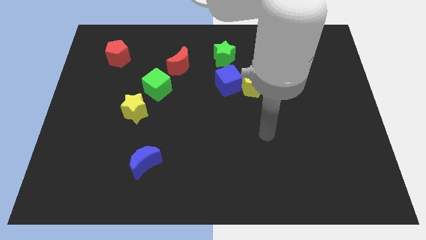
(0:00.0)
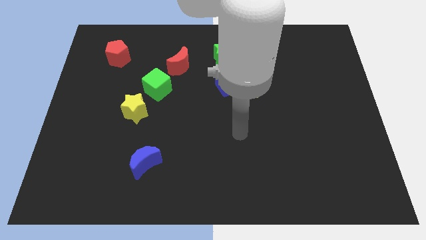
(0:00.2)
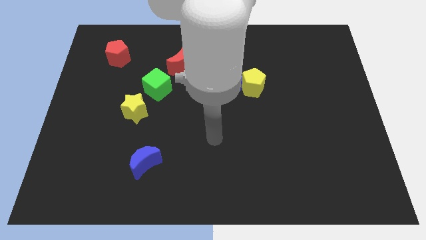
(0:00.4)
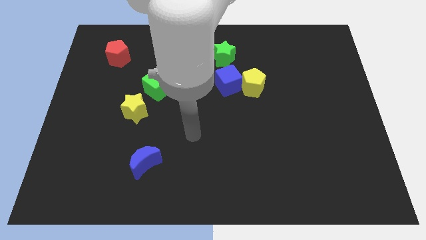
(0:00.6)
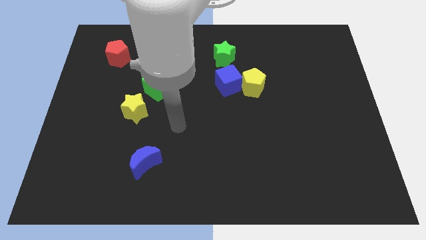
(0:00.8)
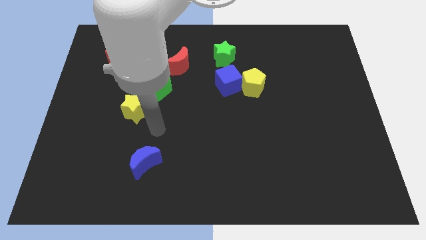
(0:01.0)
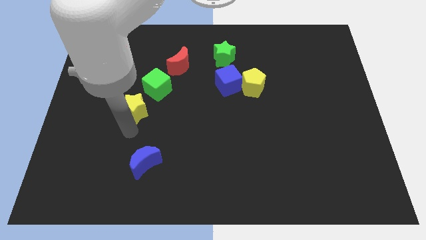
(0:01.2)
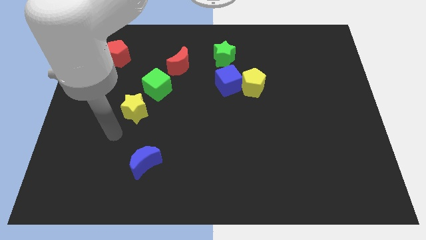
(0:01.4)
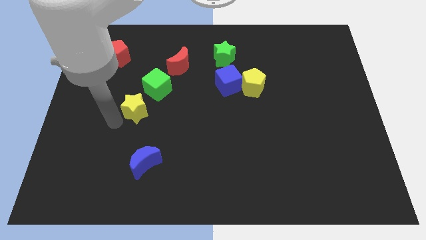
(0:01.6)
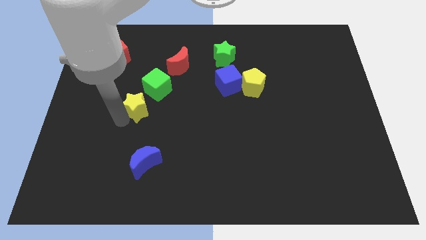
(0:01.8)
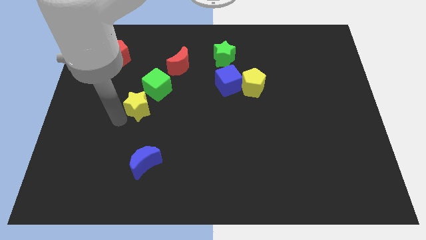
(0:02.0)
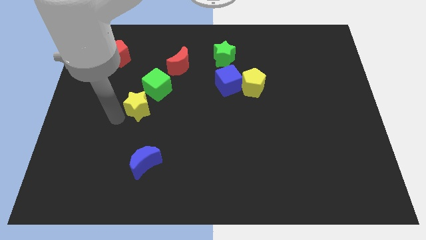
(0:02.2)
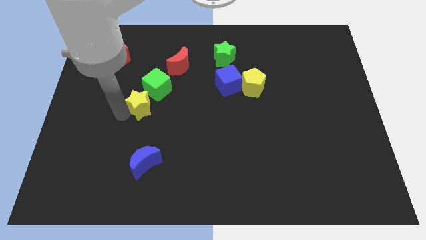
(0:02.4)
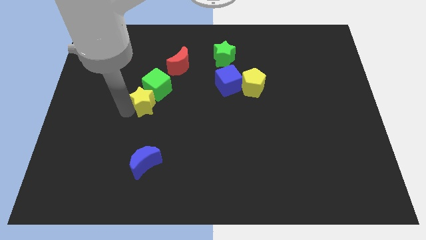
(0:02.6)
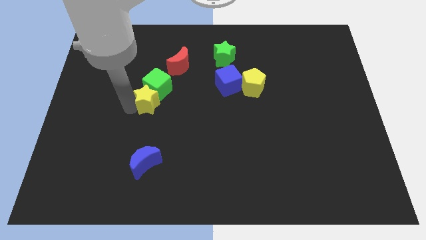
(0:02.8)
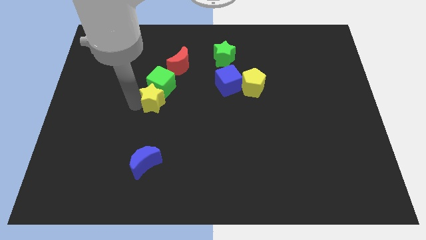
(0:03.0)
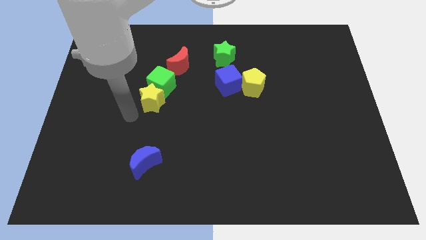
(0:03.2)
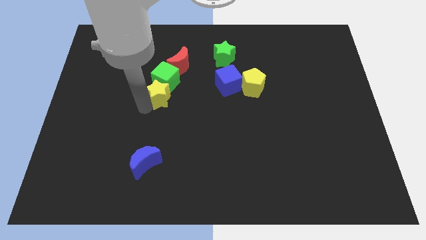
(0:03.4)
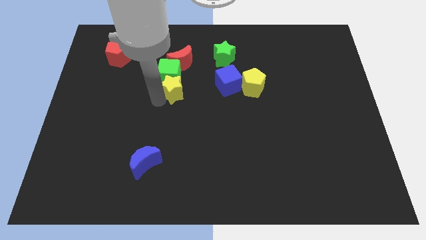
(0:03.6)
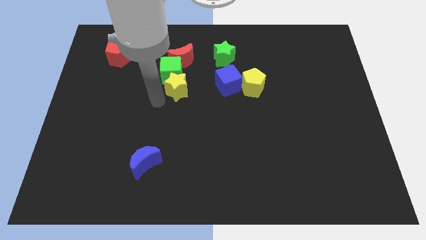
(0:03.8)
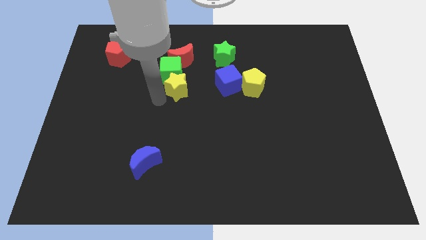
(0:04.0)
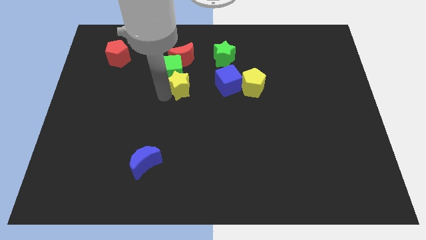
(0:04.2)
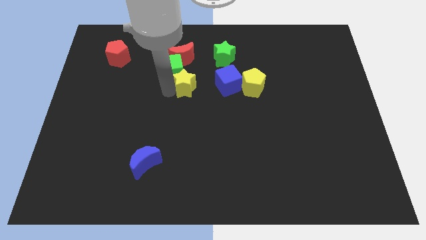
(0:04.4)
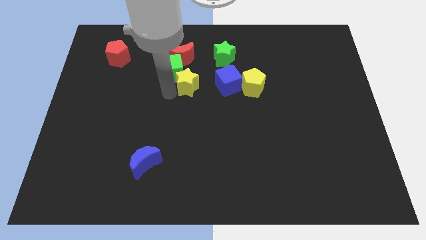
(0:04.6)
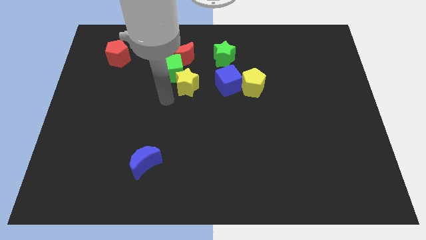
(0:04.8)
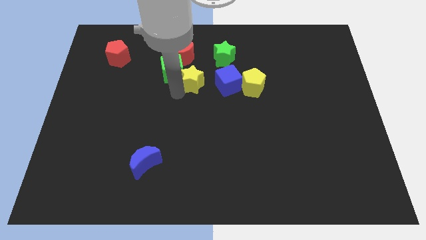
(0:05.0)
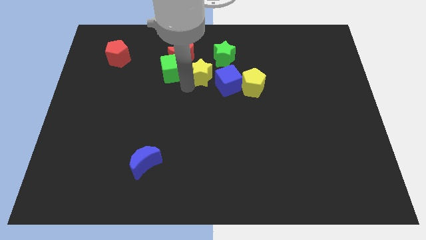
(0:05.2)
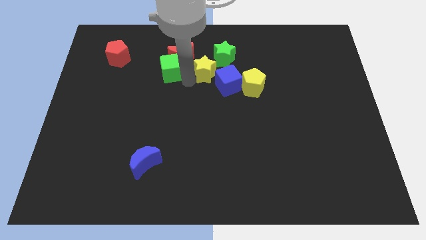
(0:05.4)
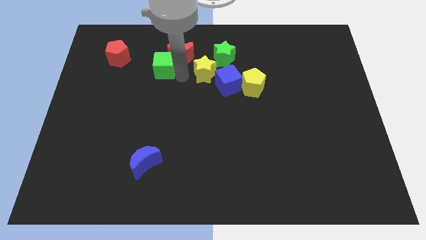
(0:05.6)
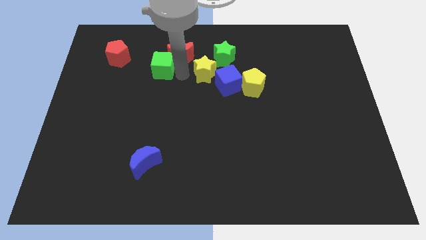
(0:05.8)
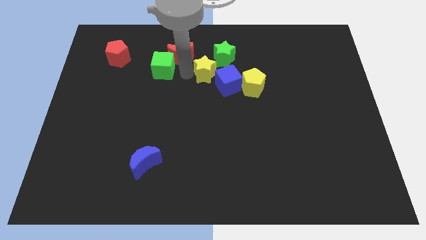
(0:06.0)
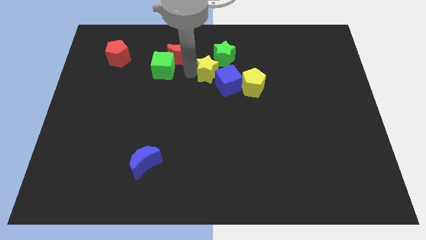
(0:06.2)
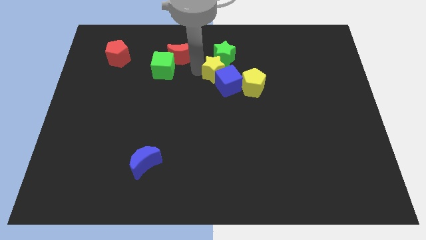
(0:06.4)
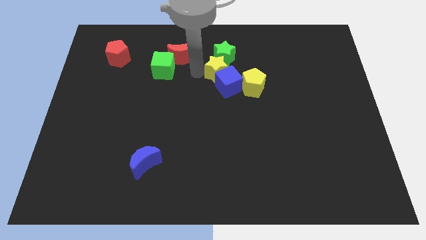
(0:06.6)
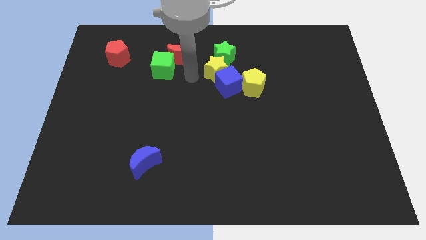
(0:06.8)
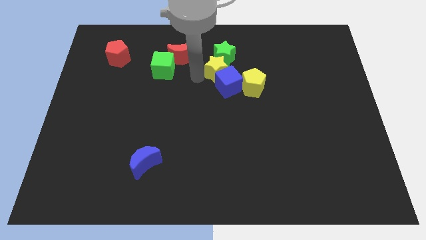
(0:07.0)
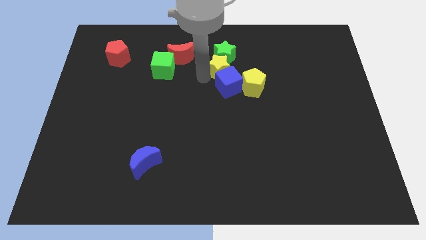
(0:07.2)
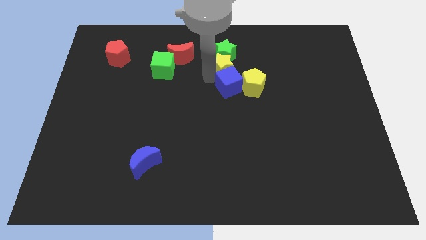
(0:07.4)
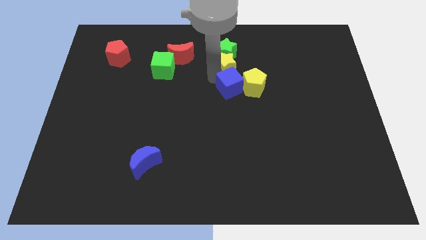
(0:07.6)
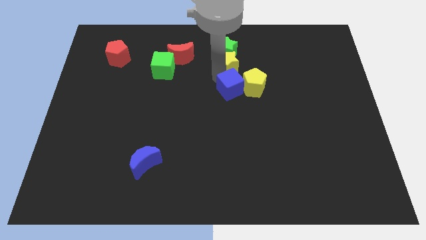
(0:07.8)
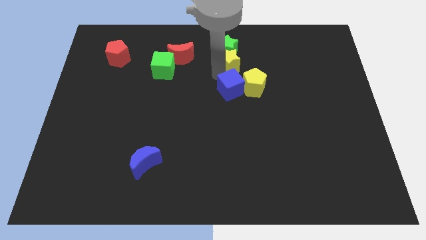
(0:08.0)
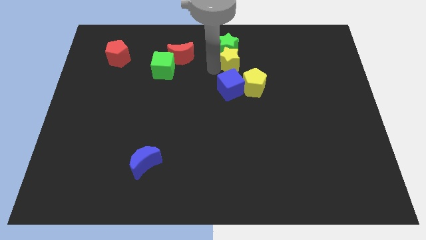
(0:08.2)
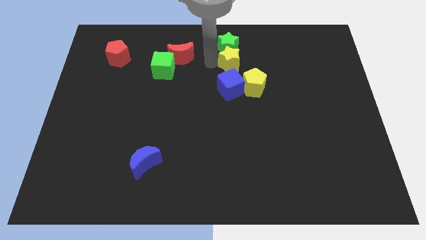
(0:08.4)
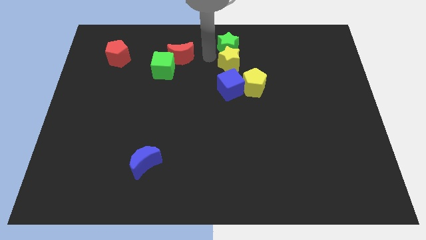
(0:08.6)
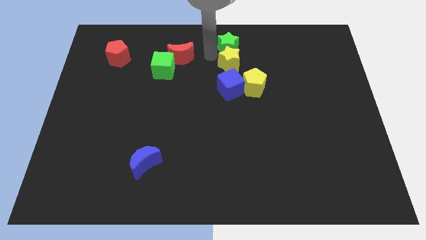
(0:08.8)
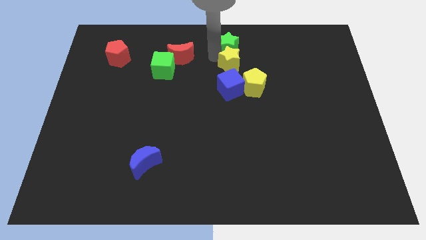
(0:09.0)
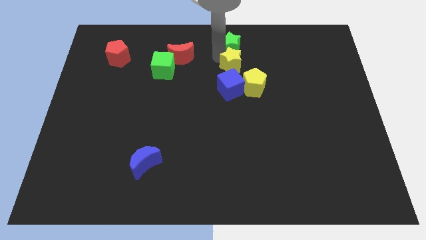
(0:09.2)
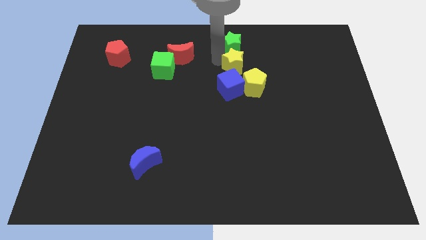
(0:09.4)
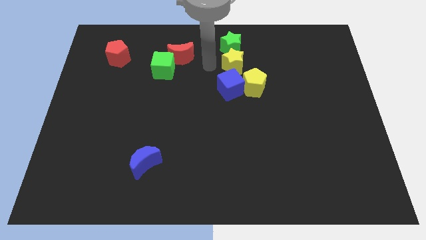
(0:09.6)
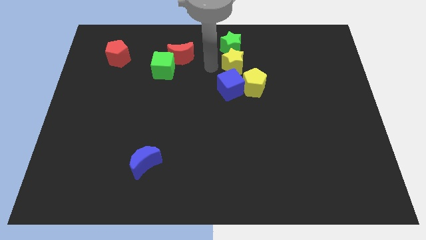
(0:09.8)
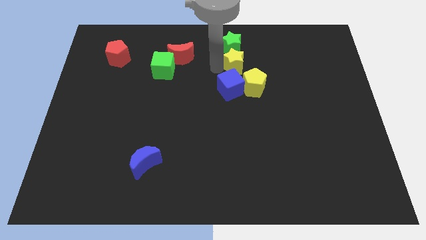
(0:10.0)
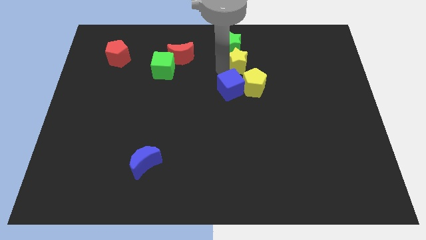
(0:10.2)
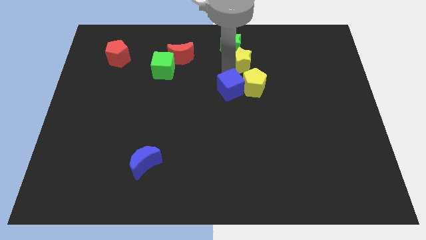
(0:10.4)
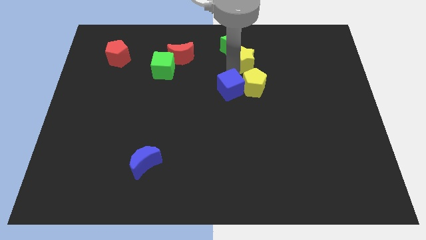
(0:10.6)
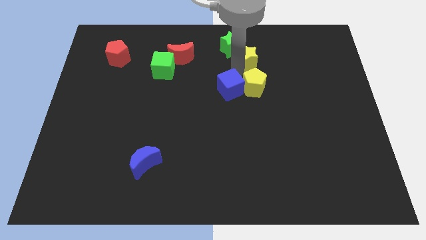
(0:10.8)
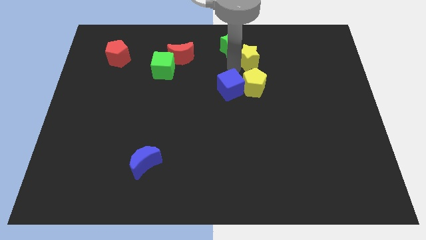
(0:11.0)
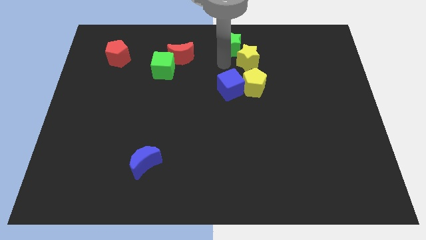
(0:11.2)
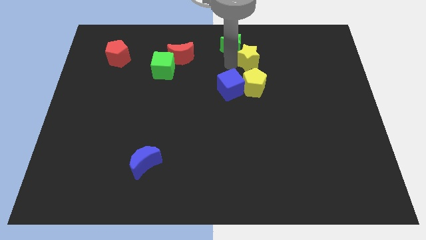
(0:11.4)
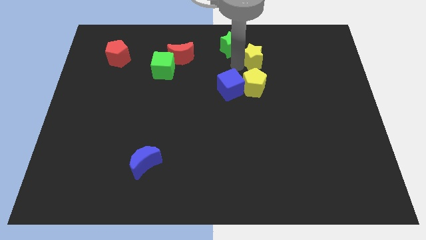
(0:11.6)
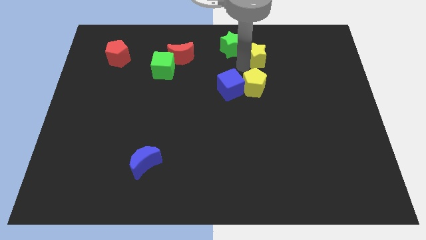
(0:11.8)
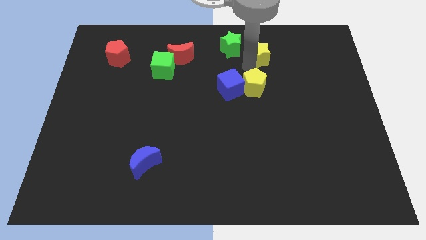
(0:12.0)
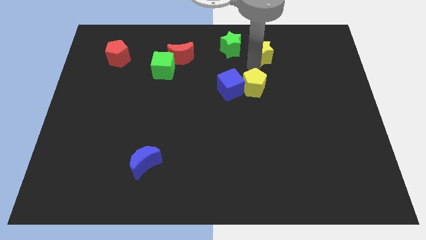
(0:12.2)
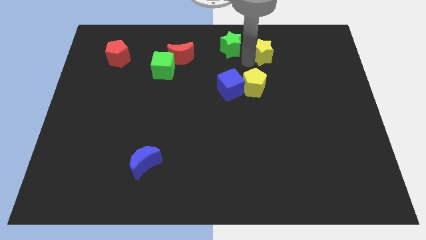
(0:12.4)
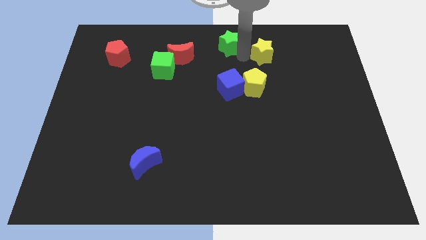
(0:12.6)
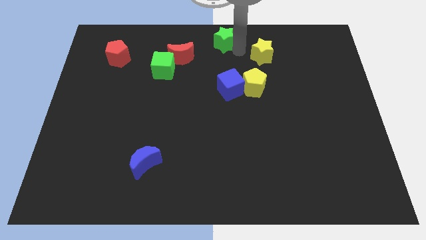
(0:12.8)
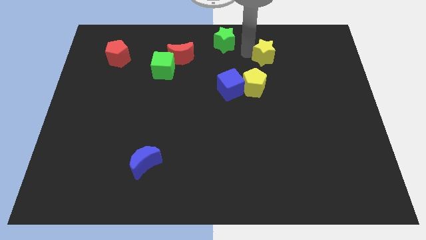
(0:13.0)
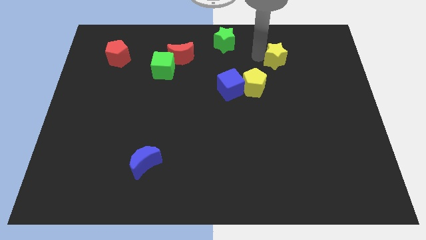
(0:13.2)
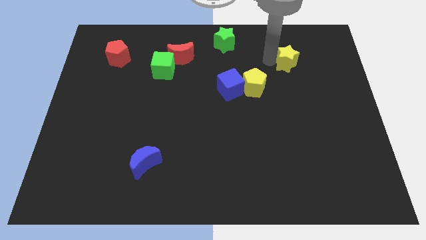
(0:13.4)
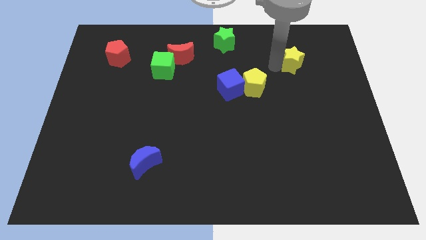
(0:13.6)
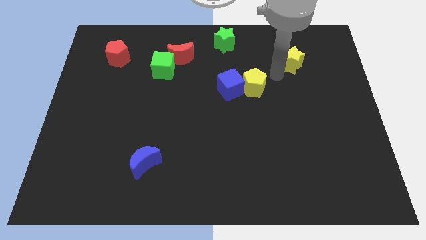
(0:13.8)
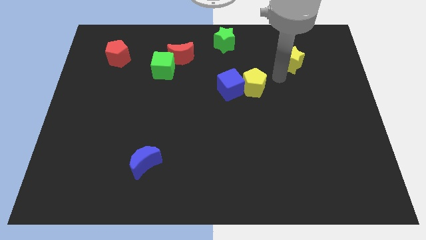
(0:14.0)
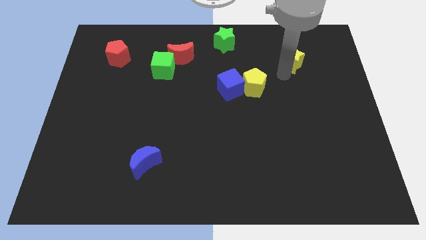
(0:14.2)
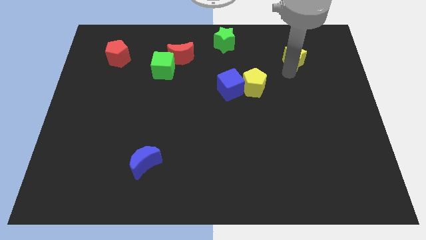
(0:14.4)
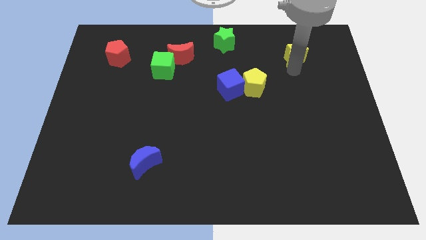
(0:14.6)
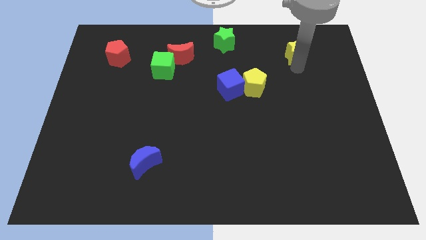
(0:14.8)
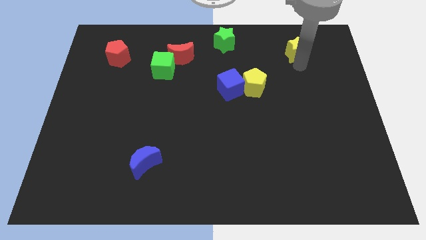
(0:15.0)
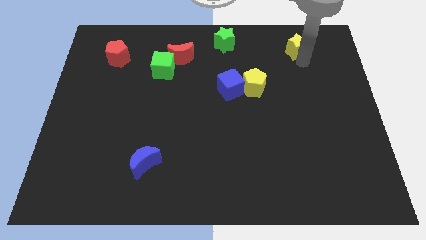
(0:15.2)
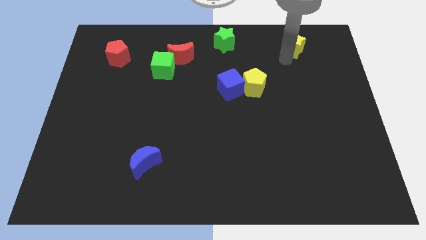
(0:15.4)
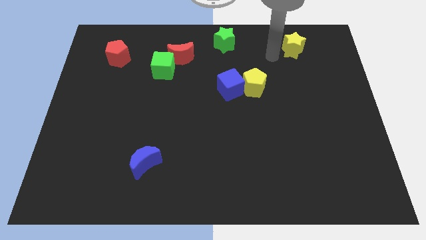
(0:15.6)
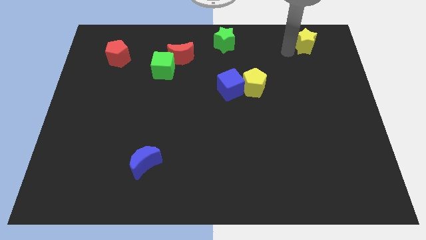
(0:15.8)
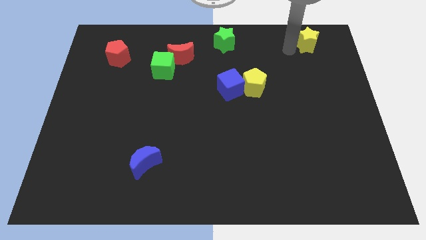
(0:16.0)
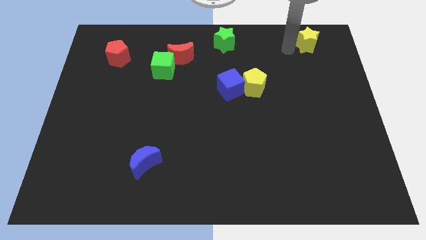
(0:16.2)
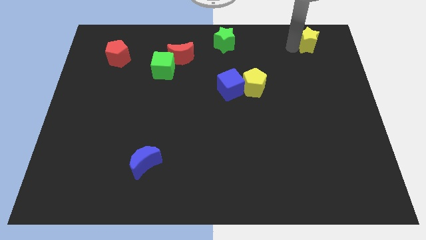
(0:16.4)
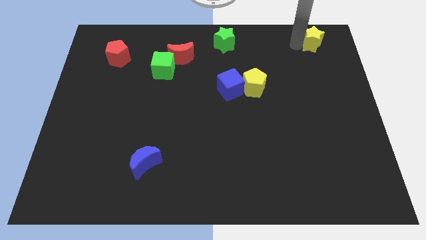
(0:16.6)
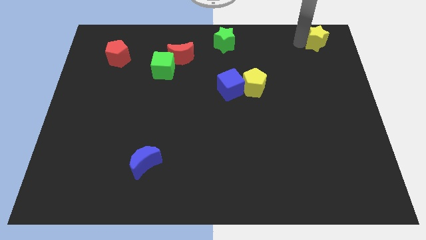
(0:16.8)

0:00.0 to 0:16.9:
slide the yellow star to the top right
